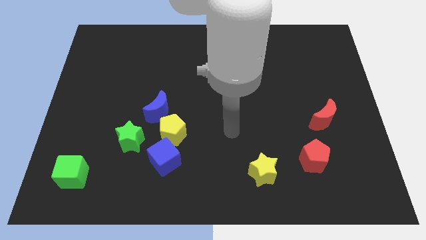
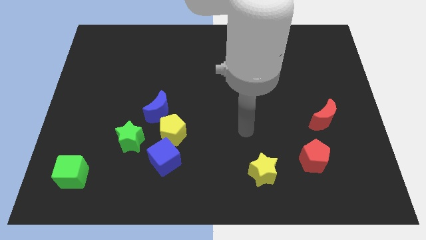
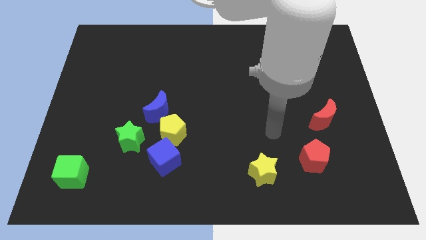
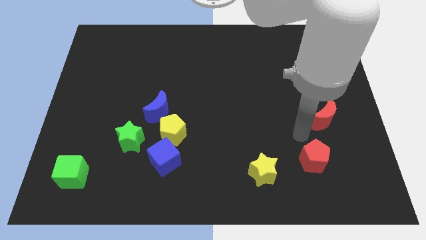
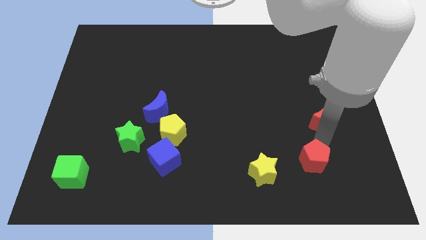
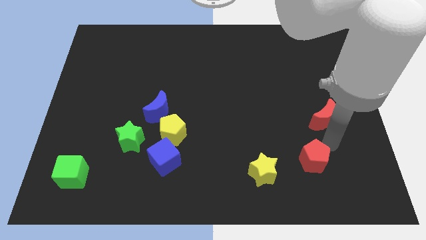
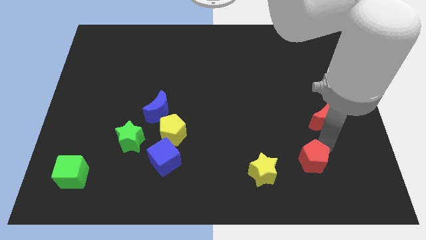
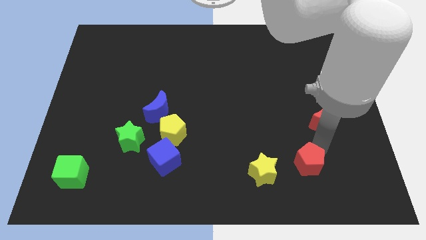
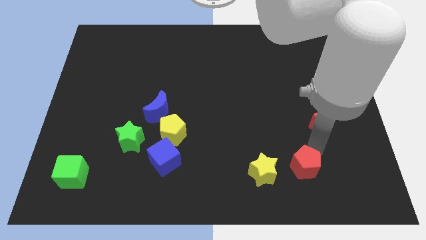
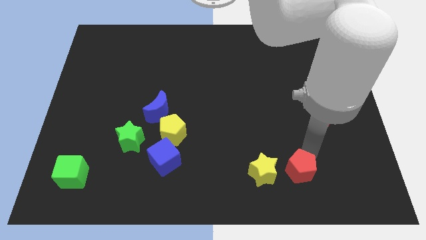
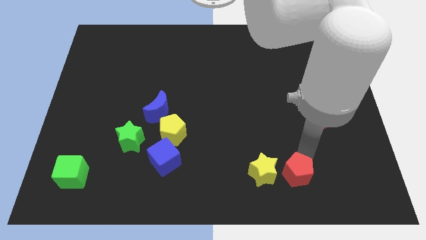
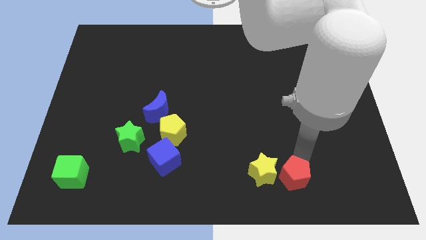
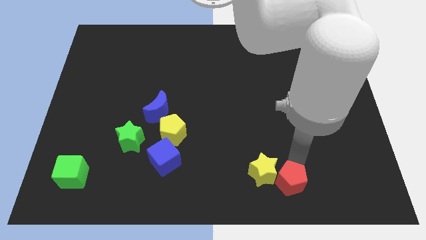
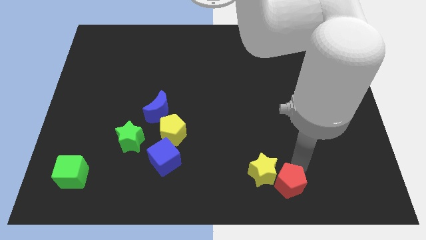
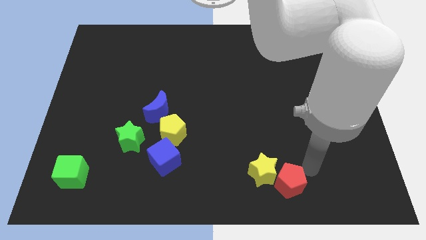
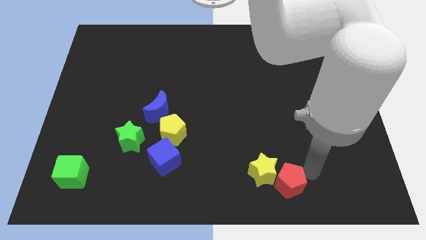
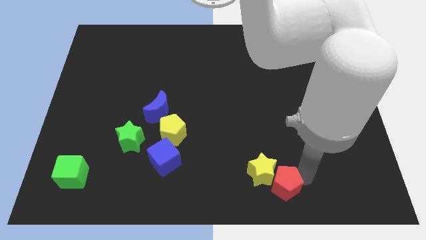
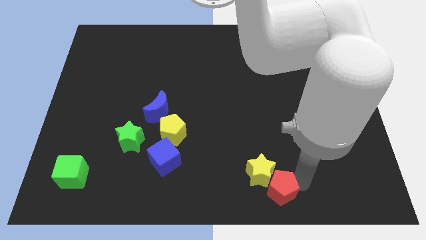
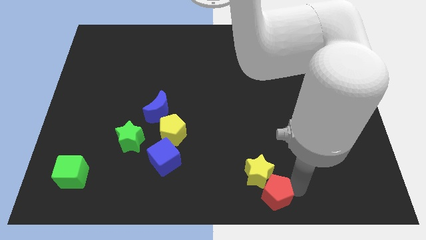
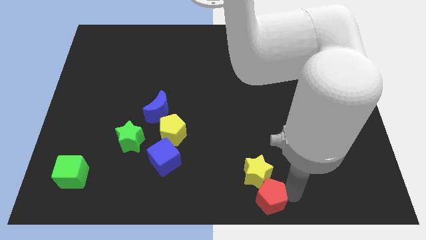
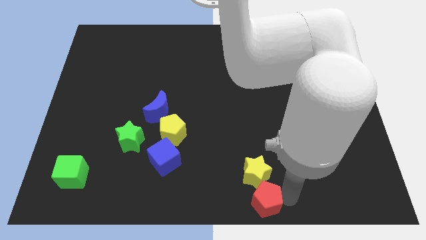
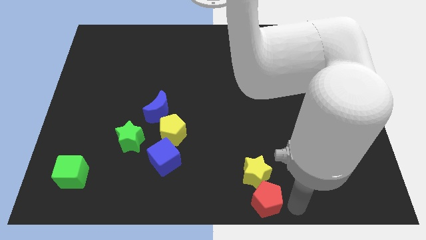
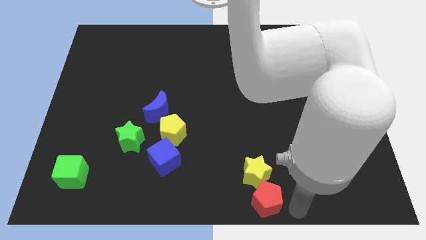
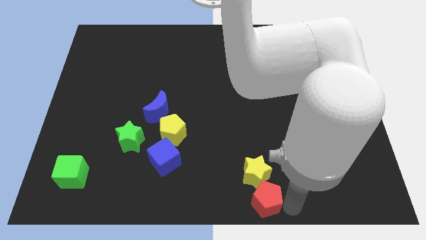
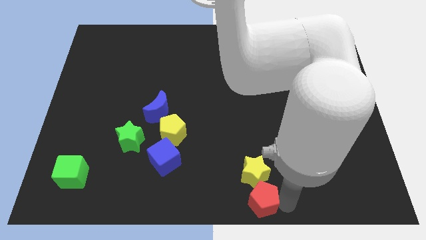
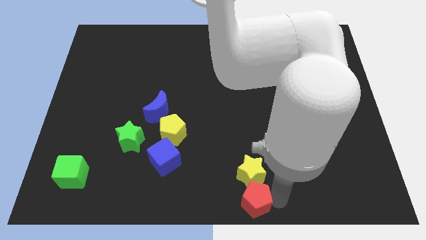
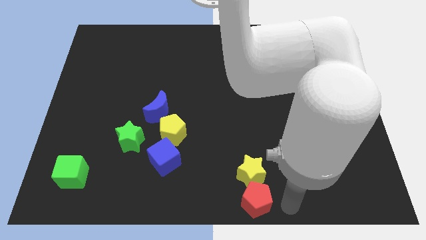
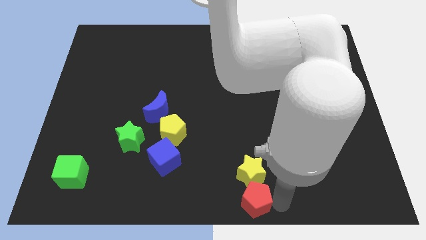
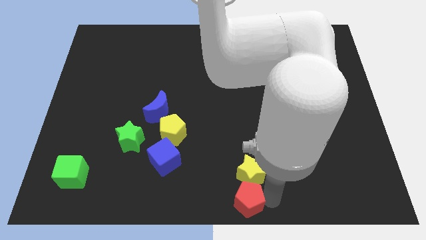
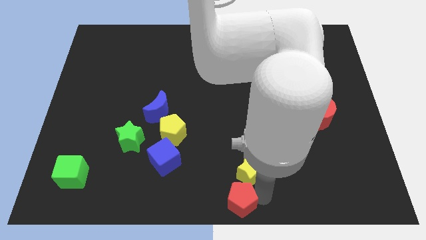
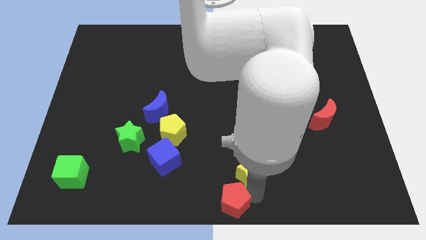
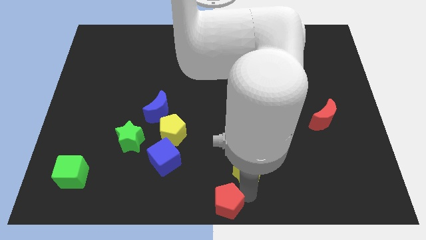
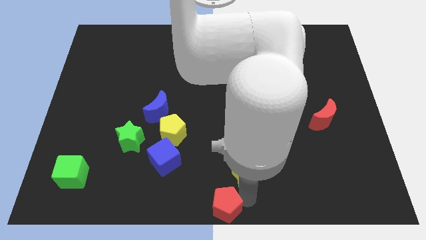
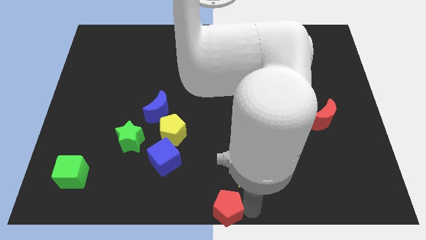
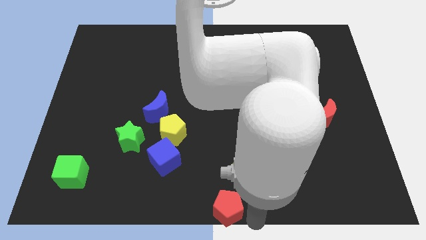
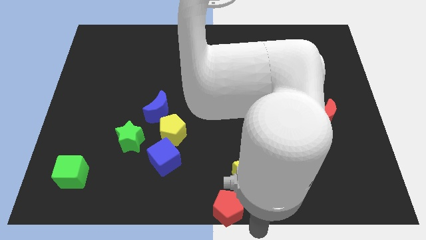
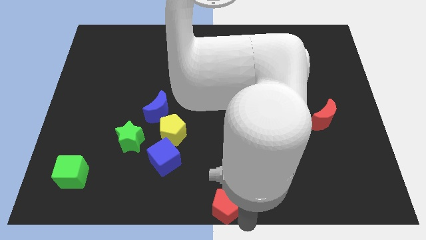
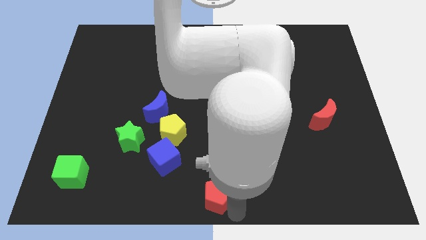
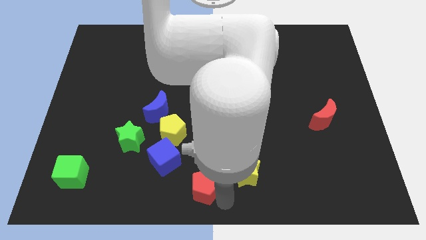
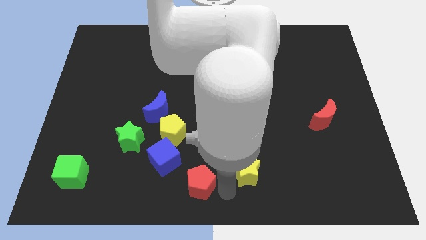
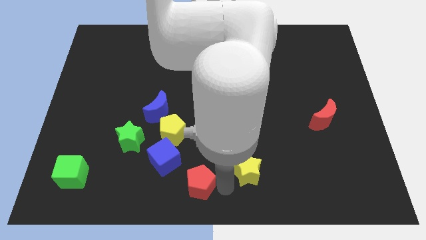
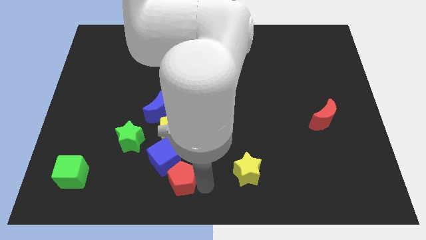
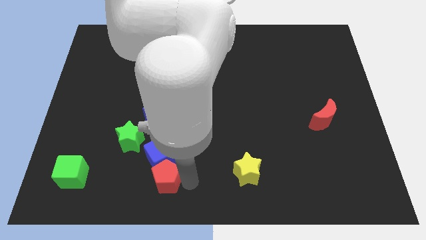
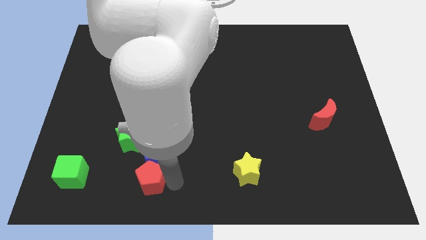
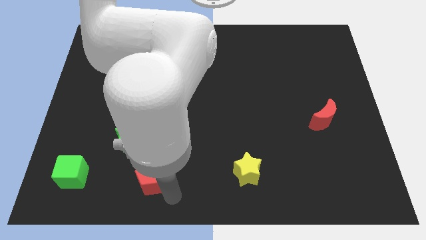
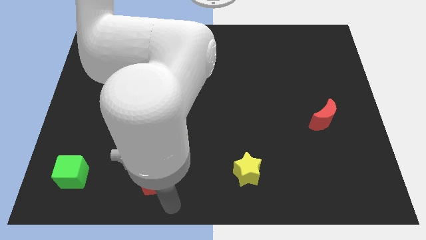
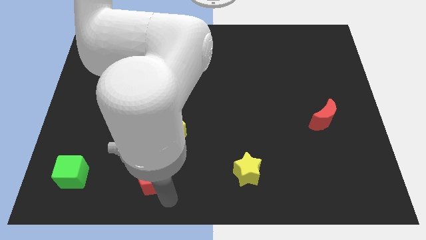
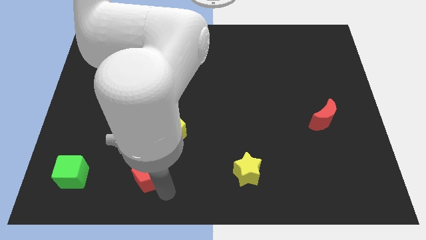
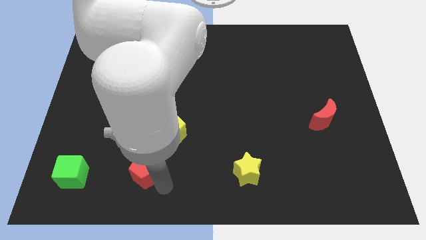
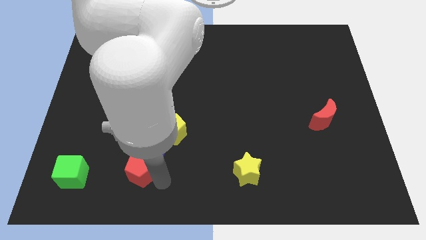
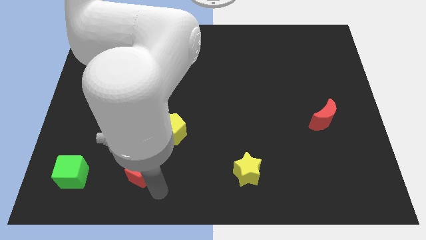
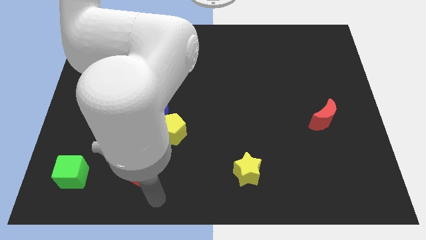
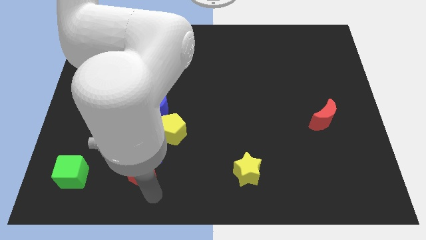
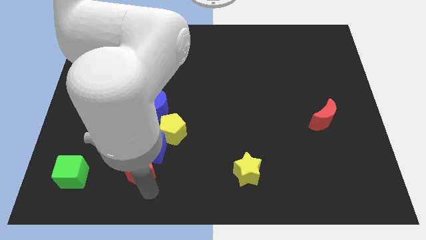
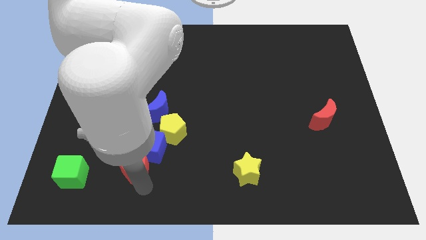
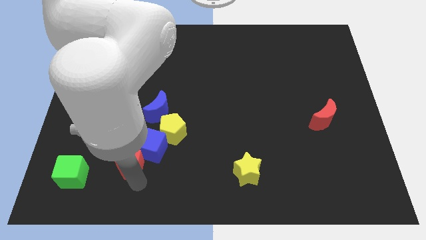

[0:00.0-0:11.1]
put the red pentagon close to the green star

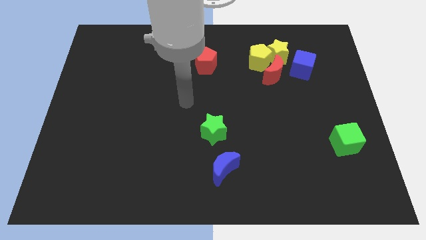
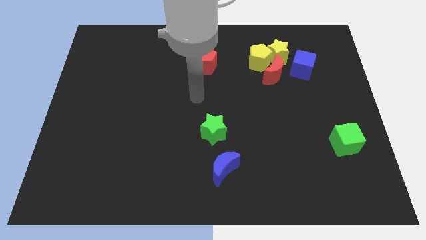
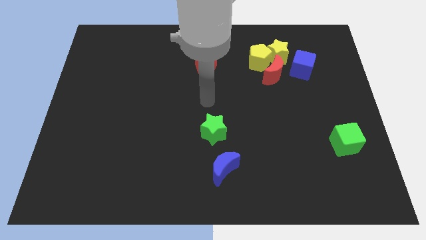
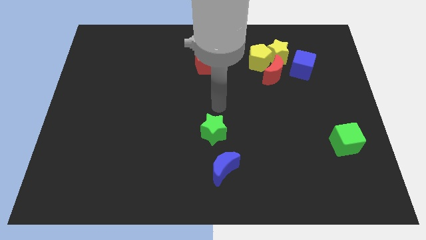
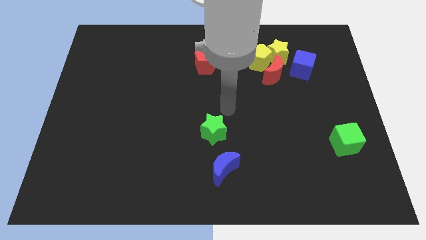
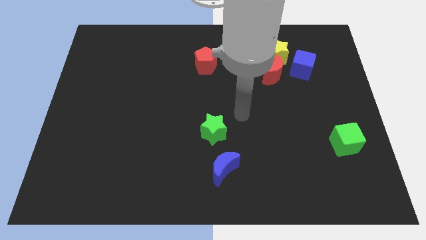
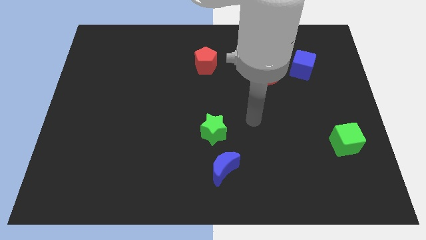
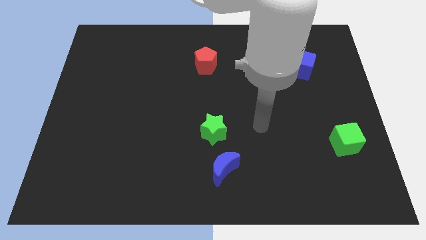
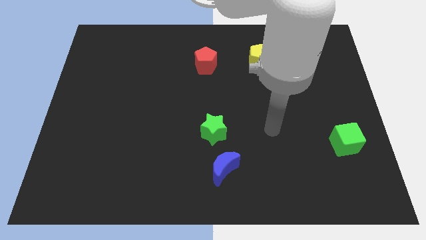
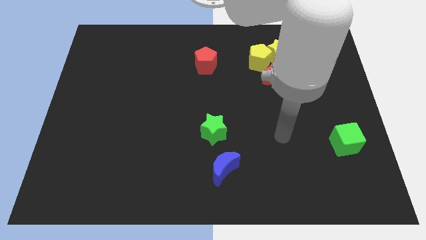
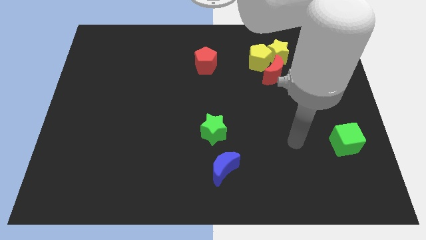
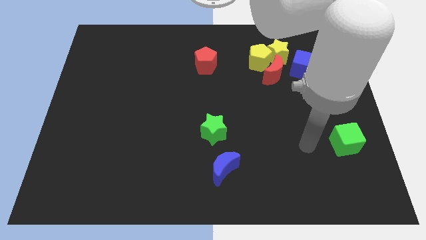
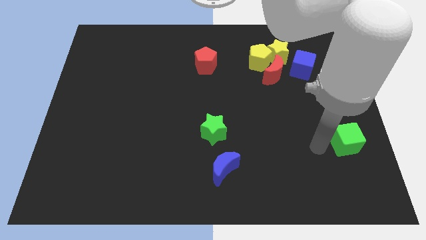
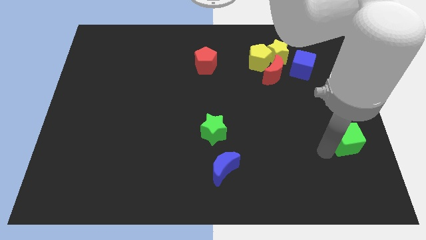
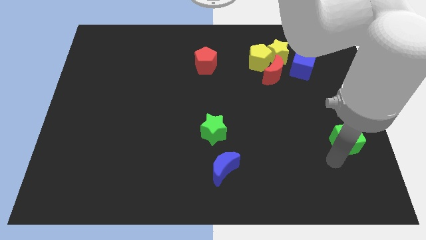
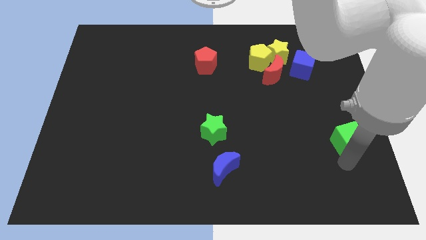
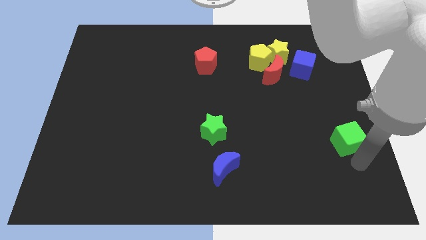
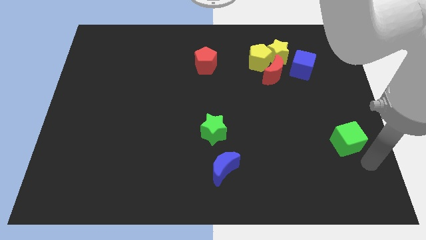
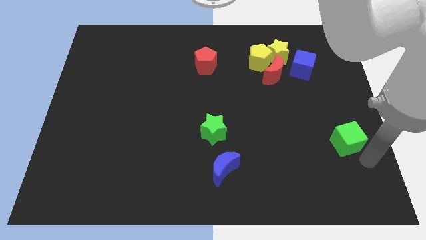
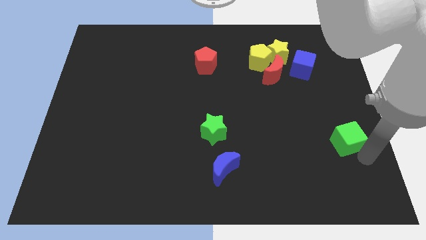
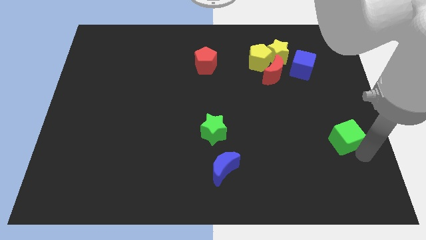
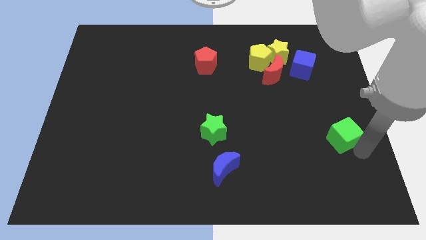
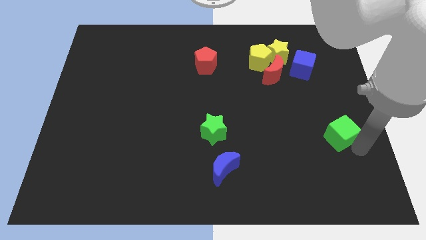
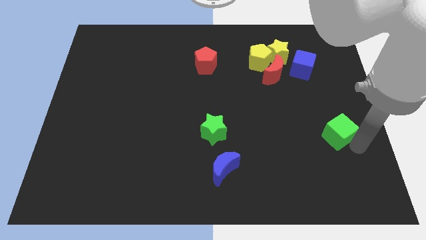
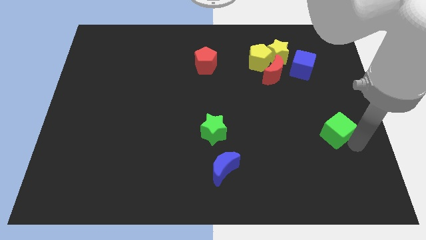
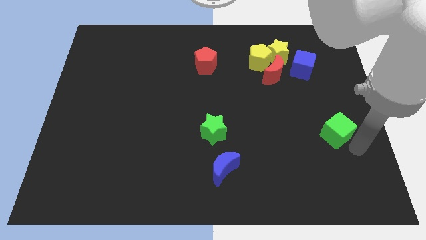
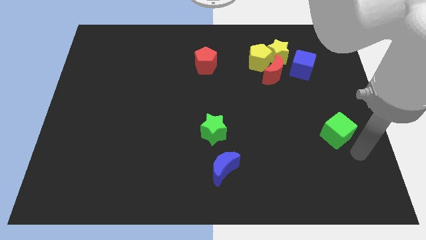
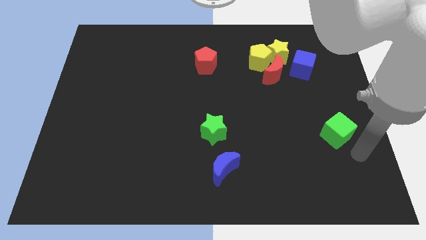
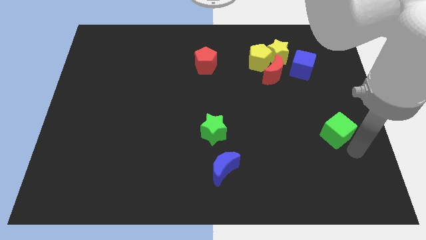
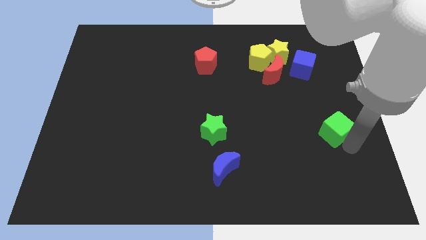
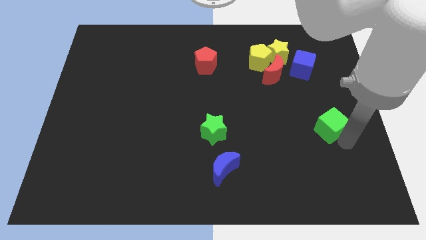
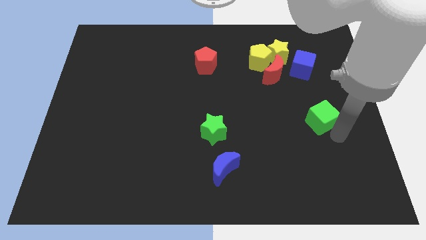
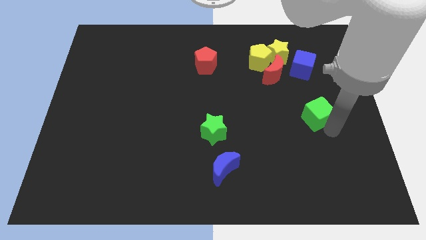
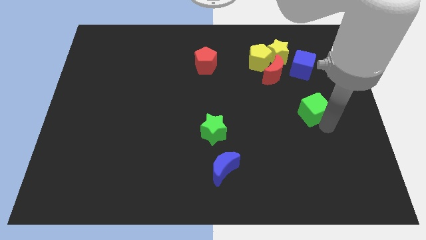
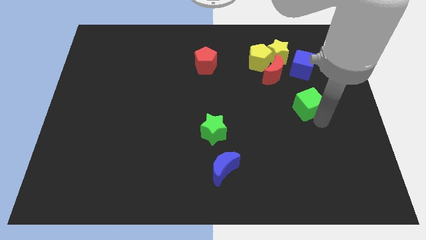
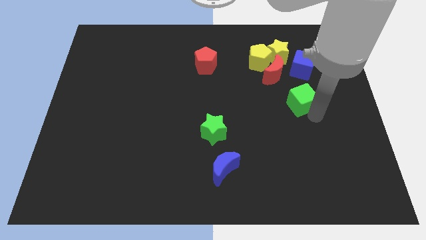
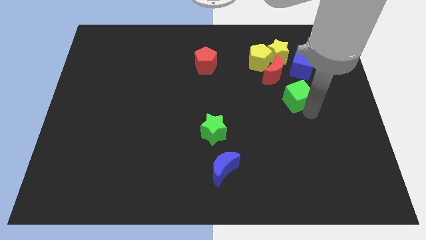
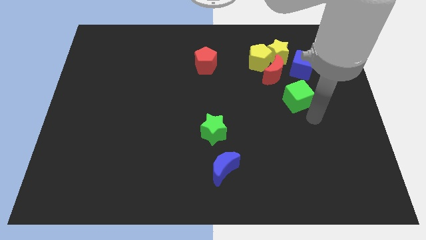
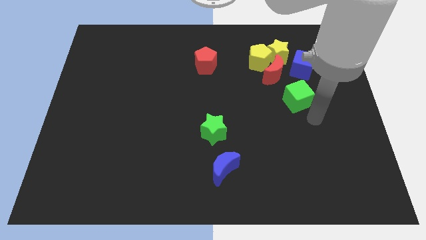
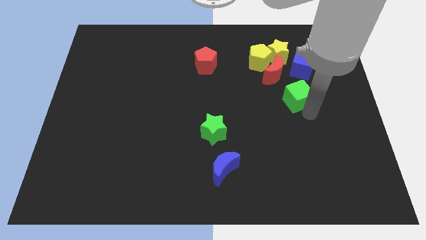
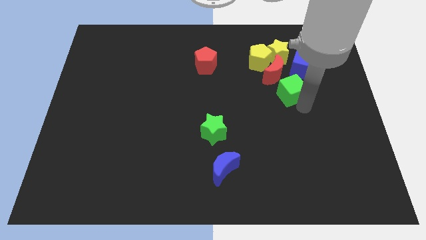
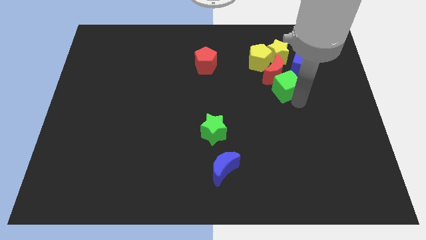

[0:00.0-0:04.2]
put the green cube to the red moon
